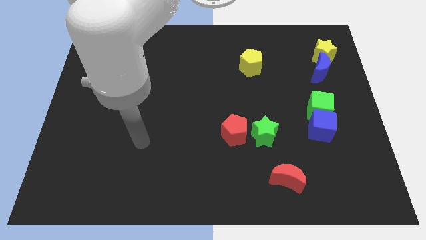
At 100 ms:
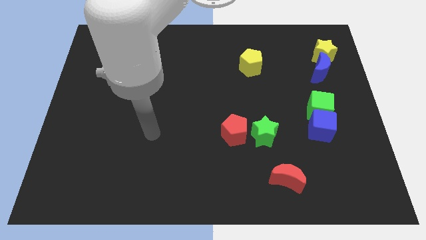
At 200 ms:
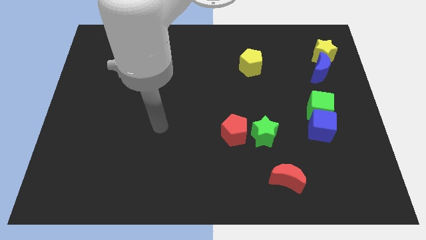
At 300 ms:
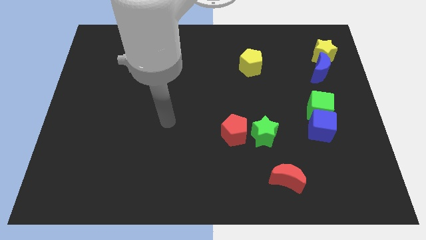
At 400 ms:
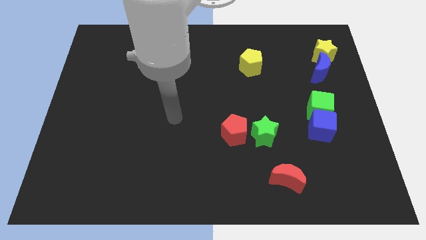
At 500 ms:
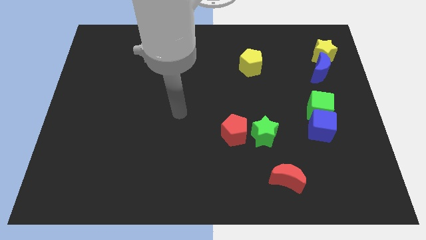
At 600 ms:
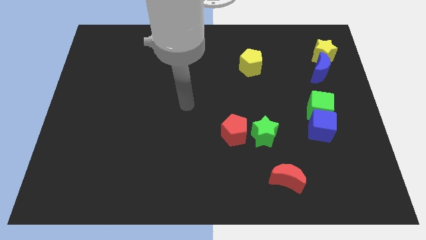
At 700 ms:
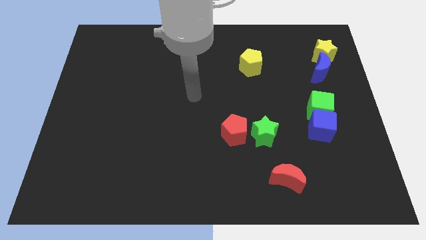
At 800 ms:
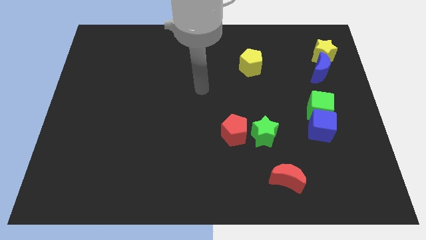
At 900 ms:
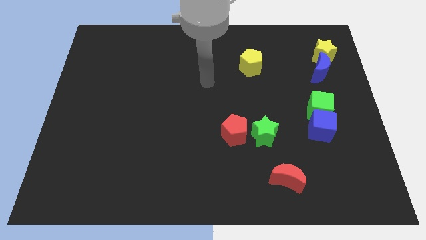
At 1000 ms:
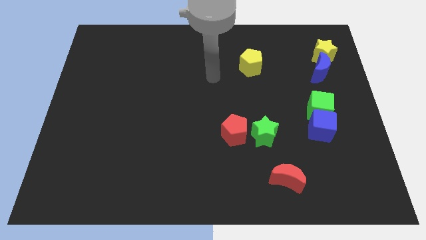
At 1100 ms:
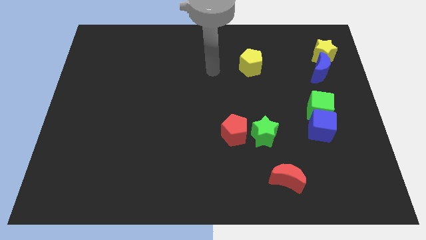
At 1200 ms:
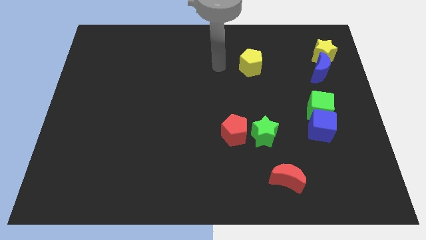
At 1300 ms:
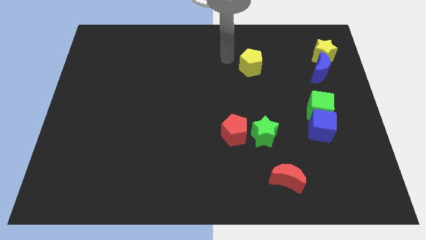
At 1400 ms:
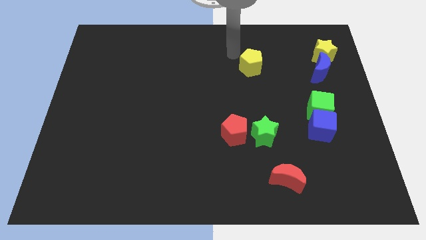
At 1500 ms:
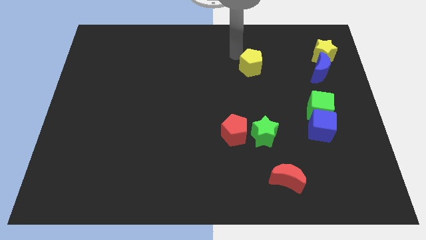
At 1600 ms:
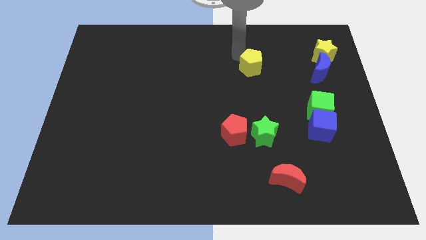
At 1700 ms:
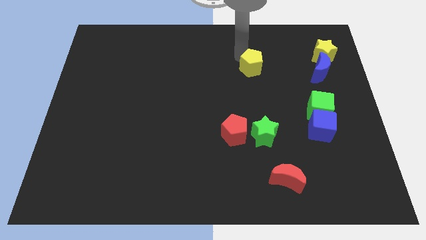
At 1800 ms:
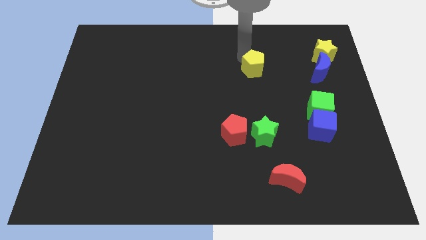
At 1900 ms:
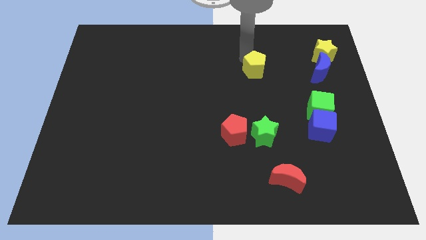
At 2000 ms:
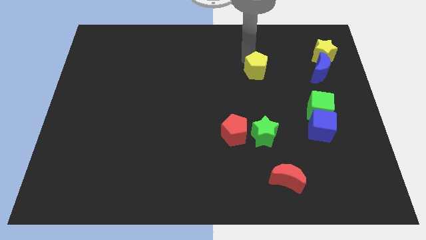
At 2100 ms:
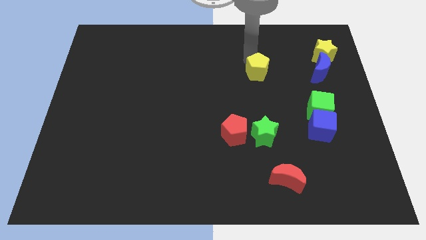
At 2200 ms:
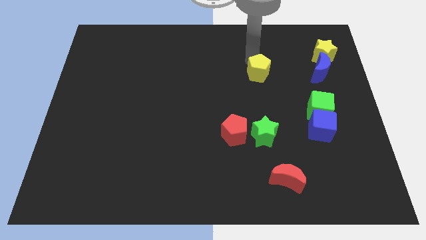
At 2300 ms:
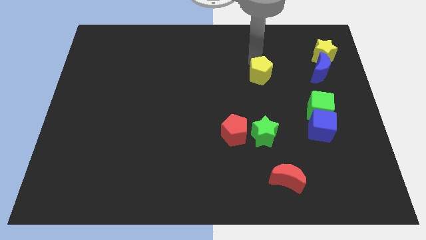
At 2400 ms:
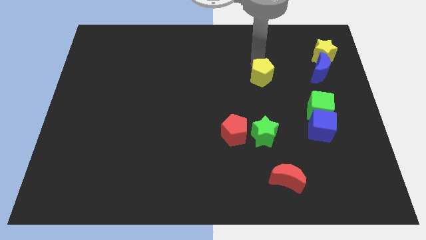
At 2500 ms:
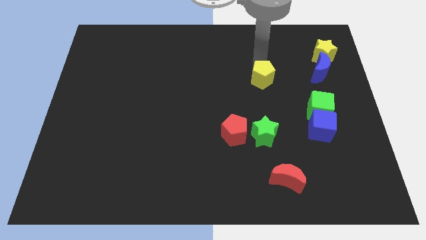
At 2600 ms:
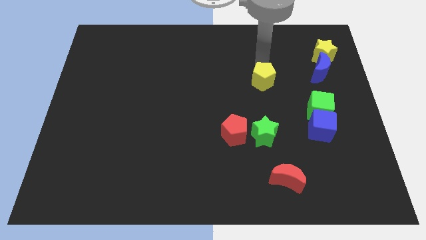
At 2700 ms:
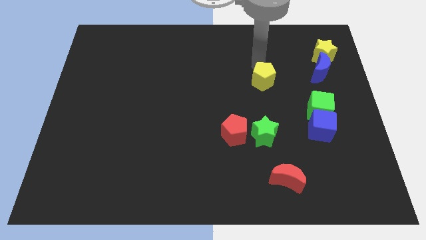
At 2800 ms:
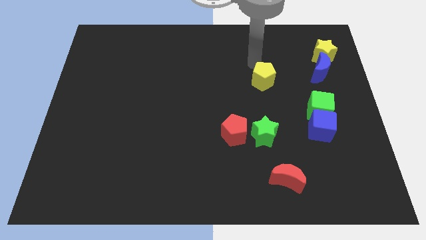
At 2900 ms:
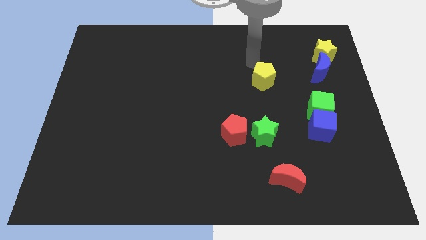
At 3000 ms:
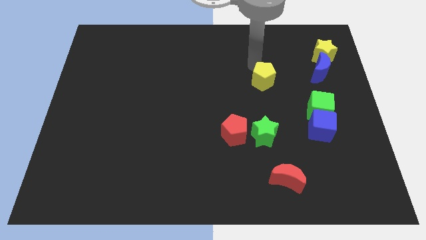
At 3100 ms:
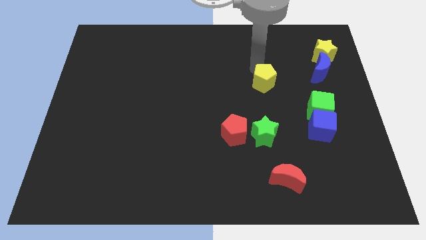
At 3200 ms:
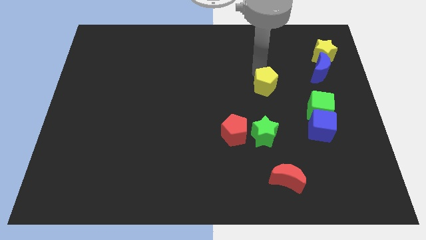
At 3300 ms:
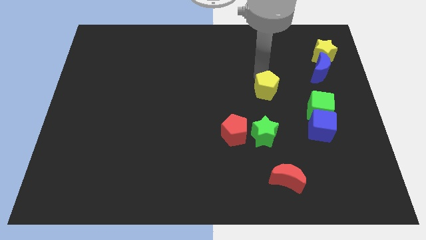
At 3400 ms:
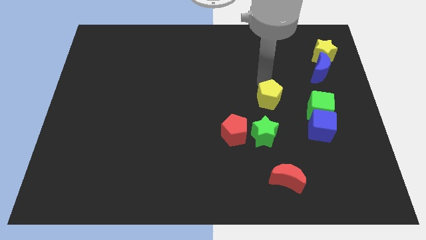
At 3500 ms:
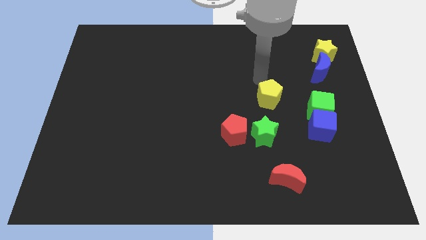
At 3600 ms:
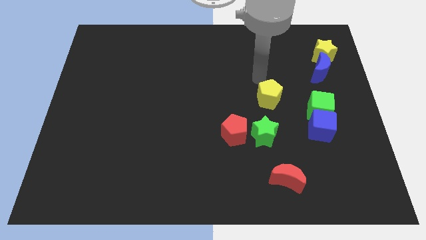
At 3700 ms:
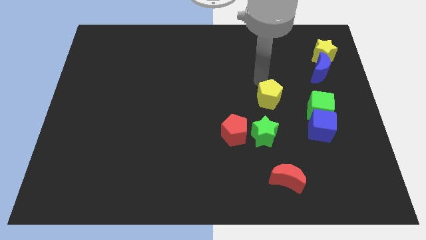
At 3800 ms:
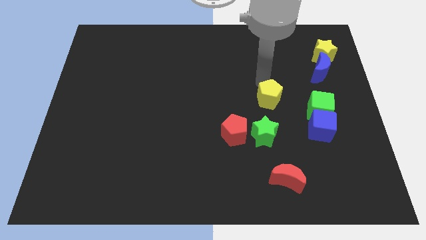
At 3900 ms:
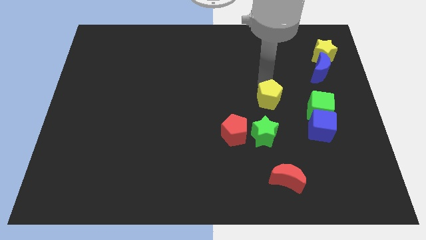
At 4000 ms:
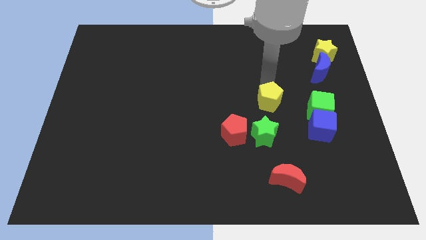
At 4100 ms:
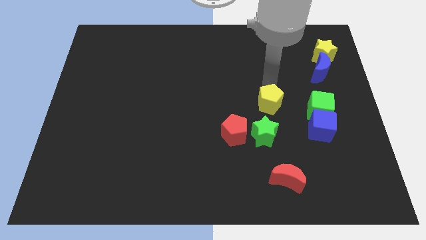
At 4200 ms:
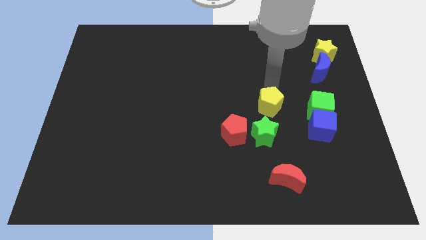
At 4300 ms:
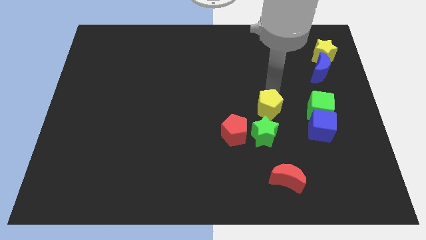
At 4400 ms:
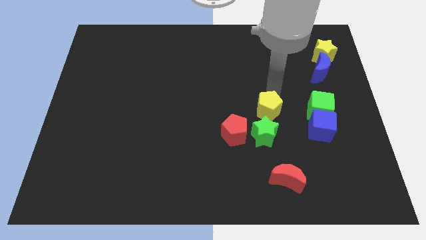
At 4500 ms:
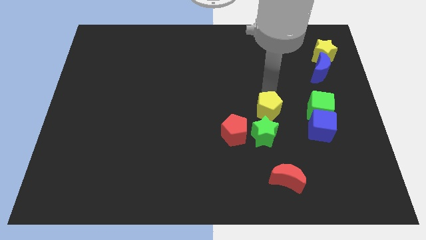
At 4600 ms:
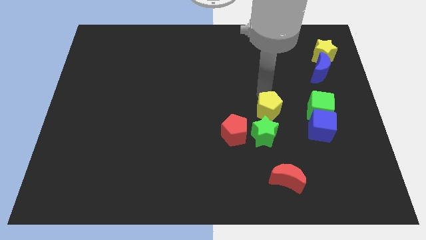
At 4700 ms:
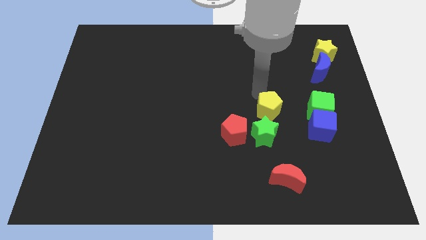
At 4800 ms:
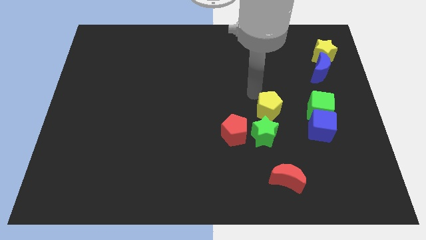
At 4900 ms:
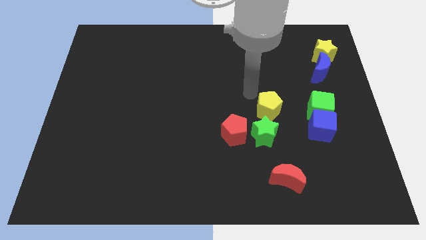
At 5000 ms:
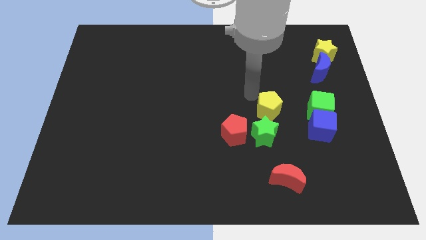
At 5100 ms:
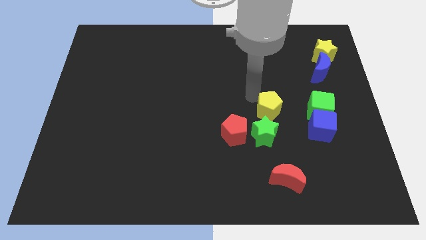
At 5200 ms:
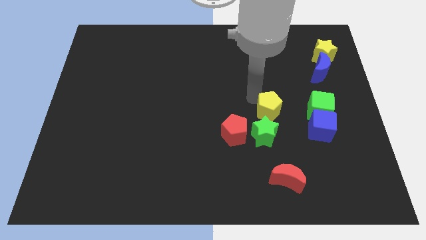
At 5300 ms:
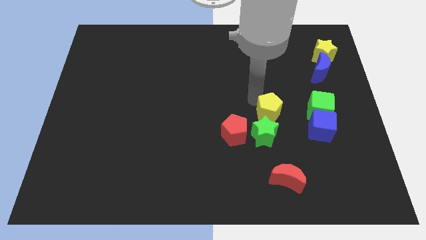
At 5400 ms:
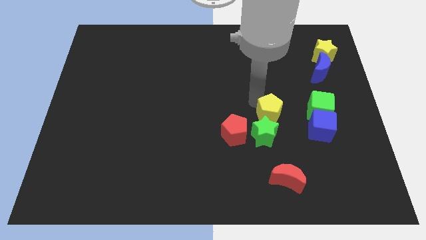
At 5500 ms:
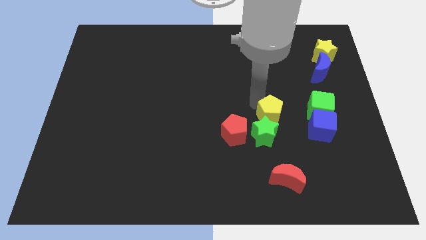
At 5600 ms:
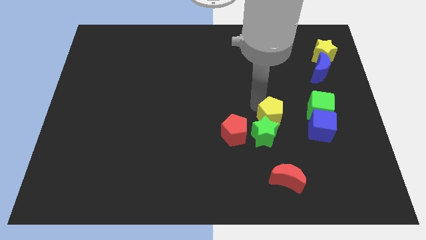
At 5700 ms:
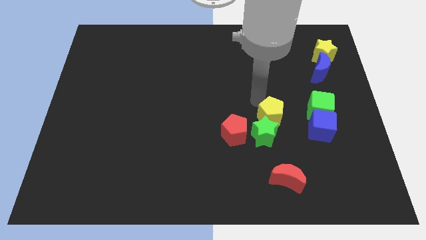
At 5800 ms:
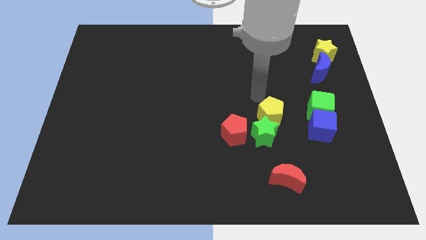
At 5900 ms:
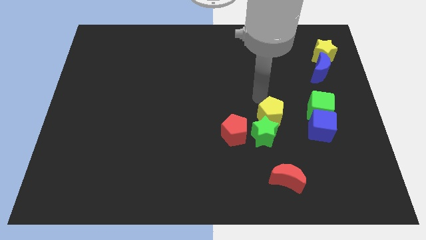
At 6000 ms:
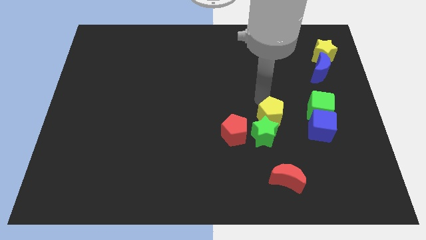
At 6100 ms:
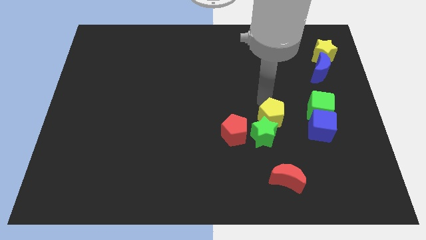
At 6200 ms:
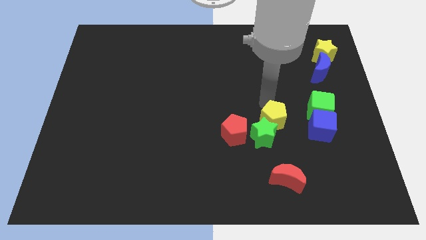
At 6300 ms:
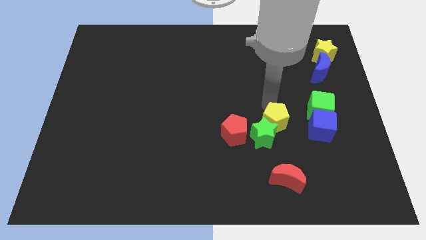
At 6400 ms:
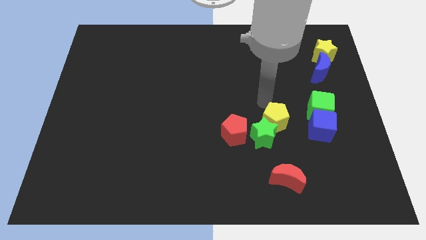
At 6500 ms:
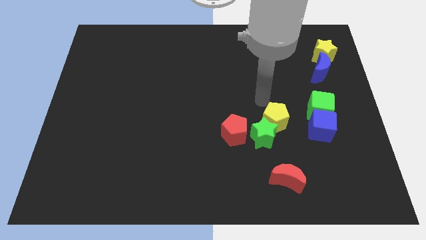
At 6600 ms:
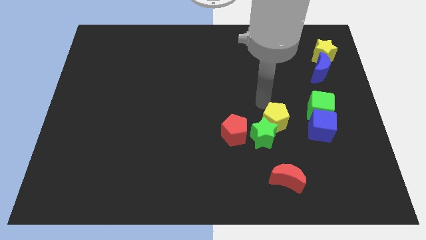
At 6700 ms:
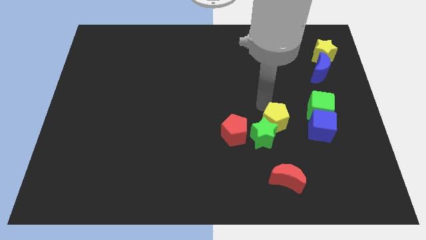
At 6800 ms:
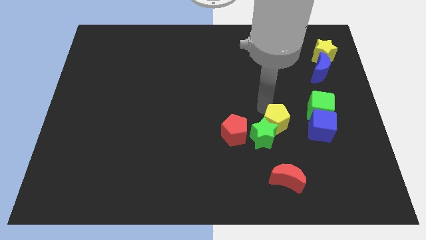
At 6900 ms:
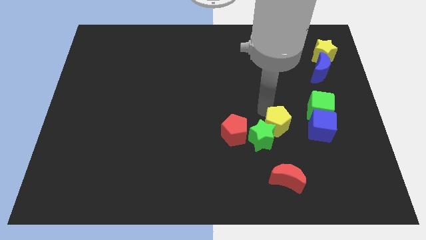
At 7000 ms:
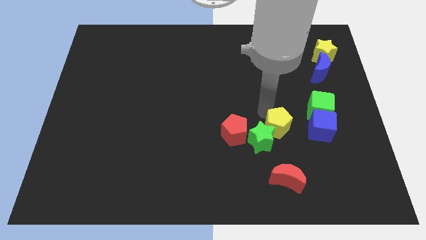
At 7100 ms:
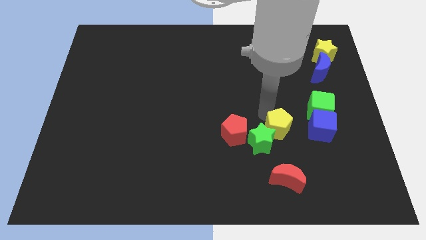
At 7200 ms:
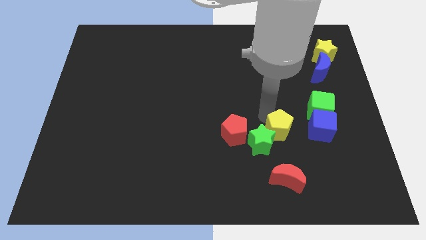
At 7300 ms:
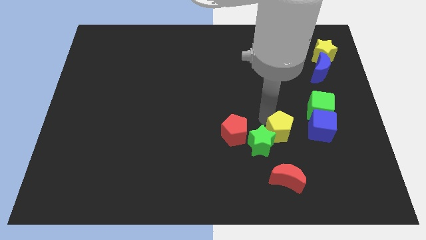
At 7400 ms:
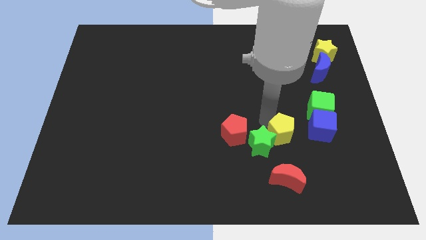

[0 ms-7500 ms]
push the yellow pentagon downwards

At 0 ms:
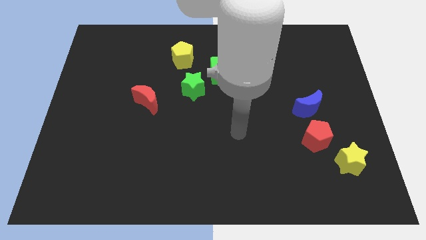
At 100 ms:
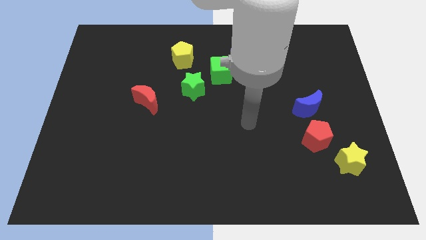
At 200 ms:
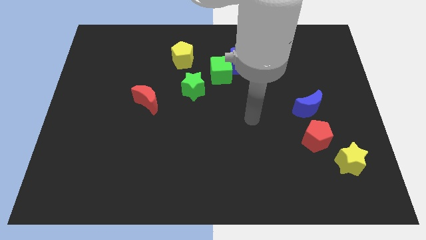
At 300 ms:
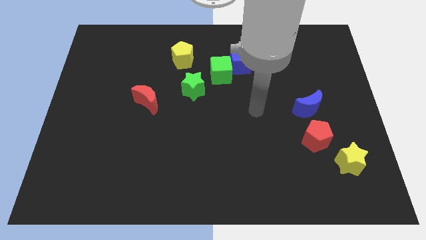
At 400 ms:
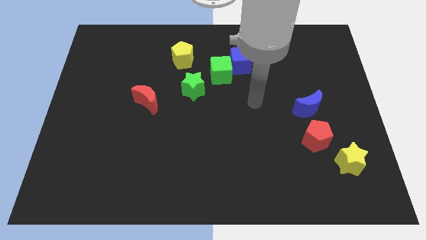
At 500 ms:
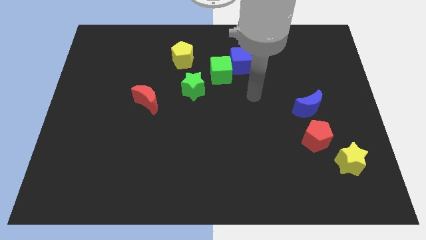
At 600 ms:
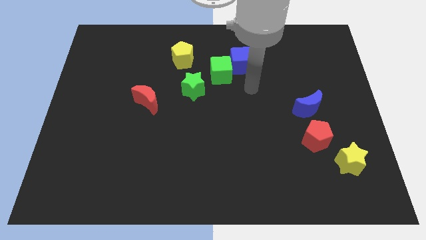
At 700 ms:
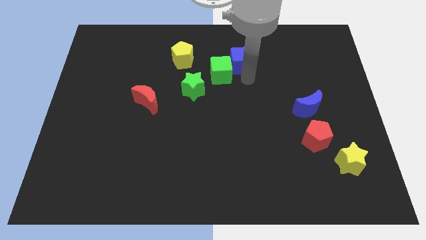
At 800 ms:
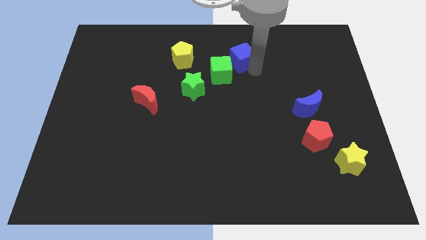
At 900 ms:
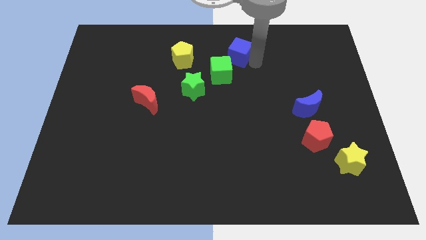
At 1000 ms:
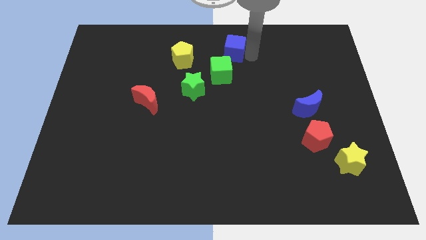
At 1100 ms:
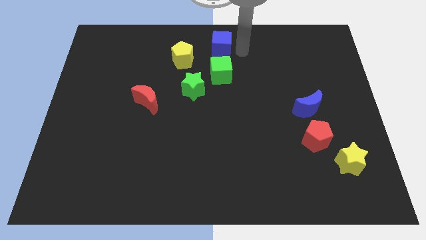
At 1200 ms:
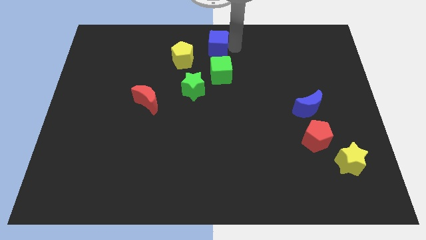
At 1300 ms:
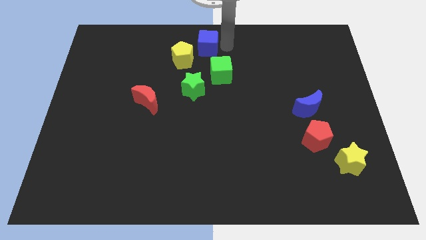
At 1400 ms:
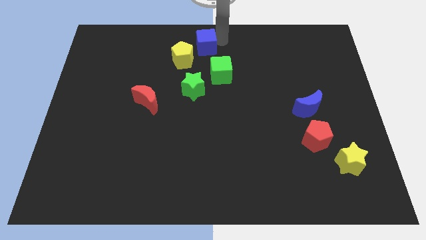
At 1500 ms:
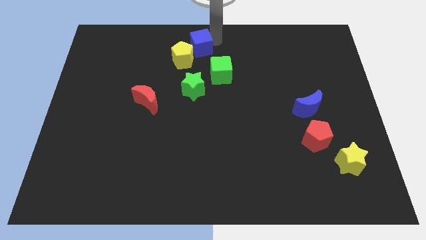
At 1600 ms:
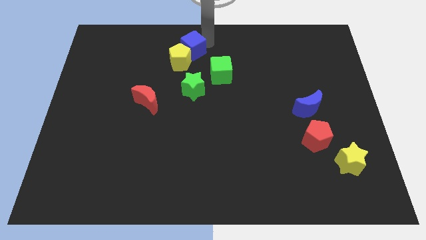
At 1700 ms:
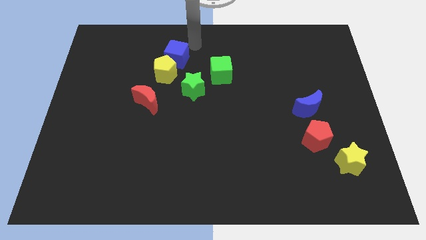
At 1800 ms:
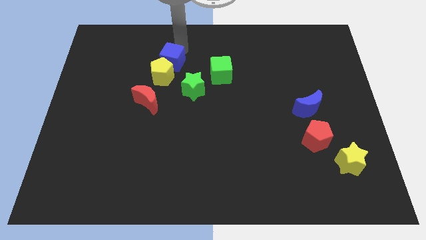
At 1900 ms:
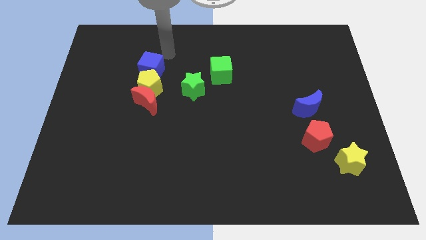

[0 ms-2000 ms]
push the yellow pentagon somewhat down
